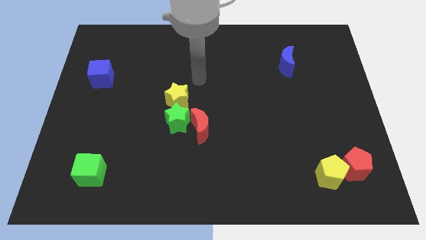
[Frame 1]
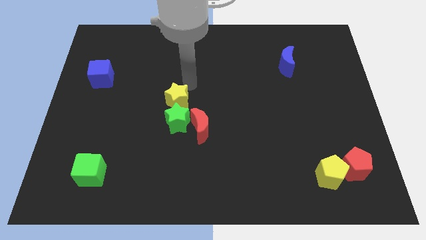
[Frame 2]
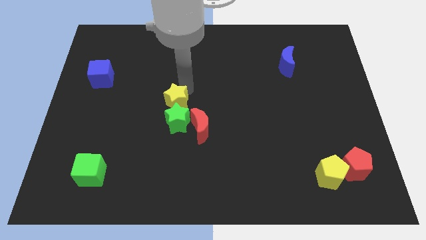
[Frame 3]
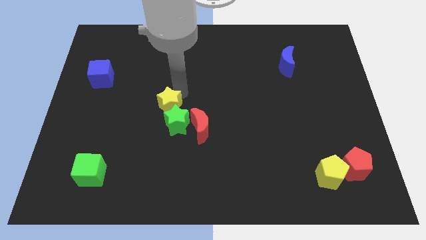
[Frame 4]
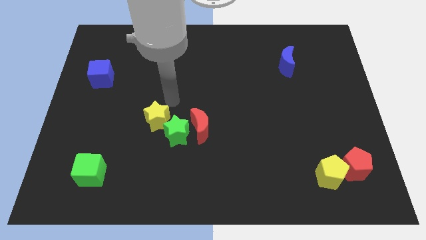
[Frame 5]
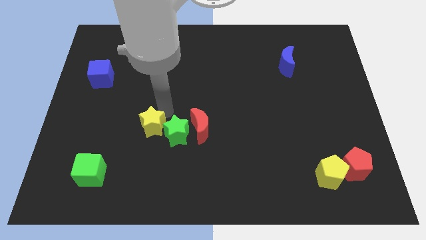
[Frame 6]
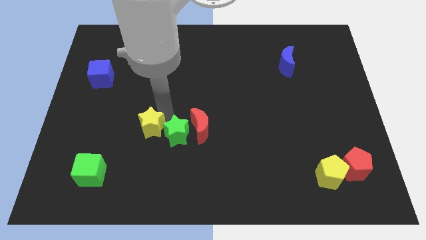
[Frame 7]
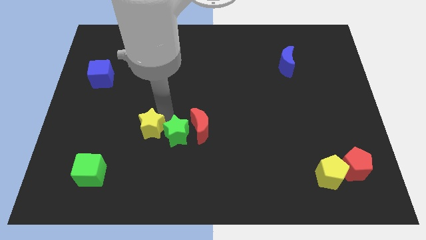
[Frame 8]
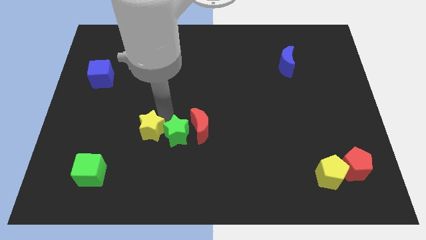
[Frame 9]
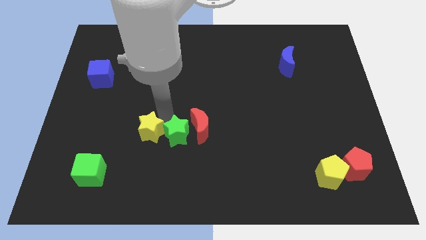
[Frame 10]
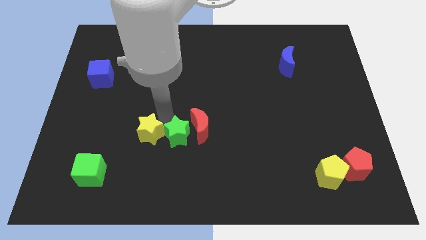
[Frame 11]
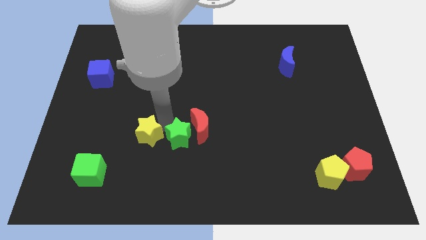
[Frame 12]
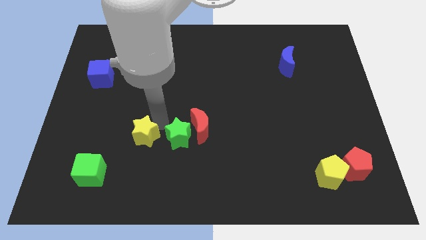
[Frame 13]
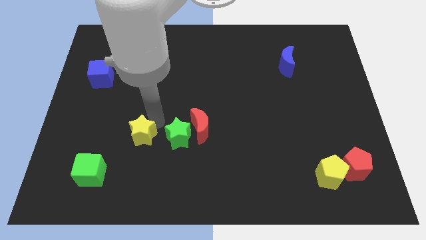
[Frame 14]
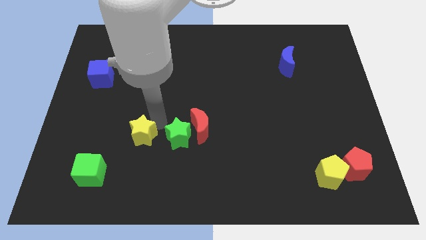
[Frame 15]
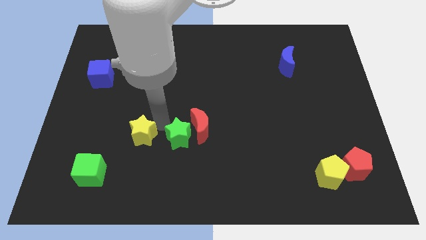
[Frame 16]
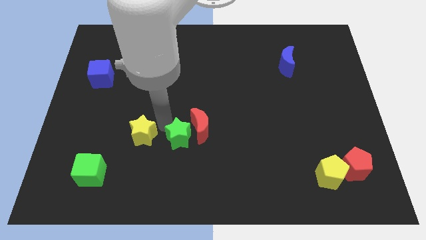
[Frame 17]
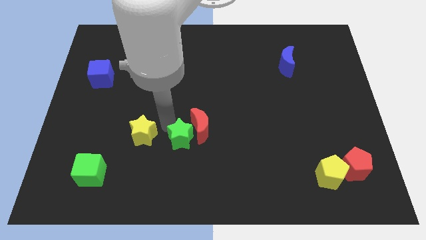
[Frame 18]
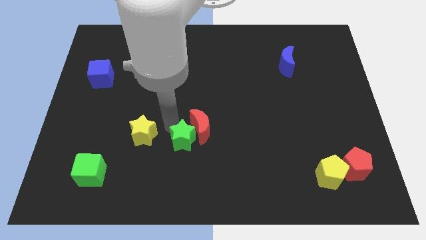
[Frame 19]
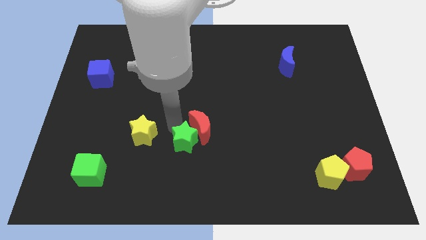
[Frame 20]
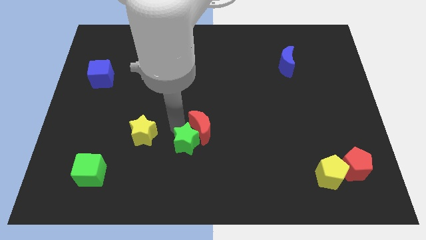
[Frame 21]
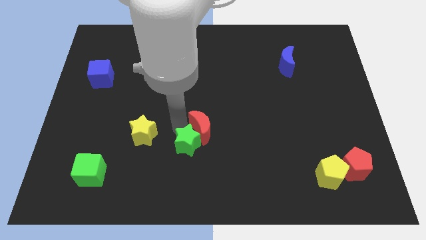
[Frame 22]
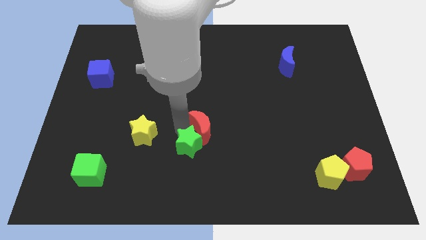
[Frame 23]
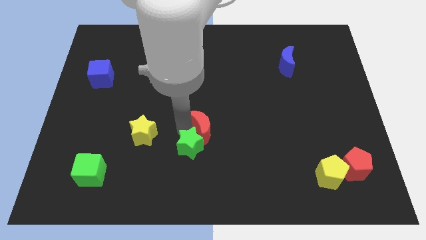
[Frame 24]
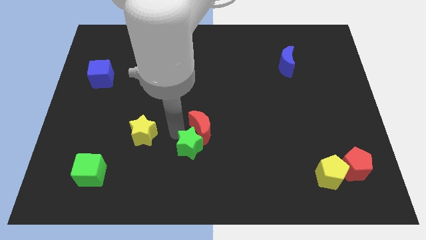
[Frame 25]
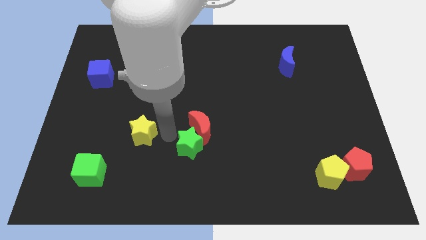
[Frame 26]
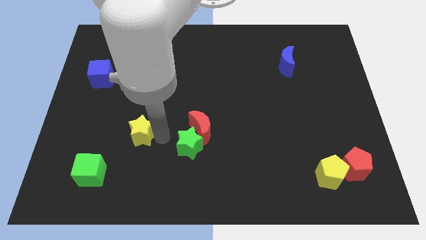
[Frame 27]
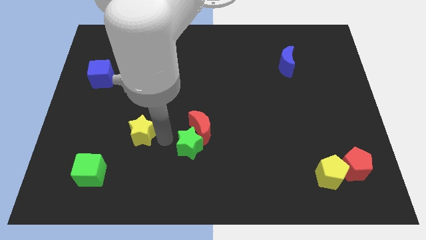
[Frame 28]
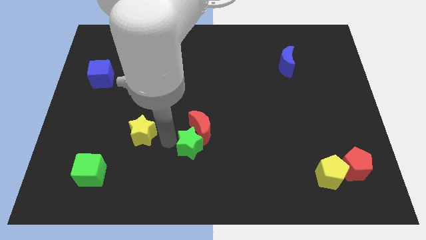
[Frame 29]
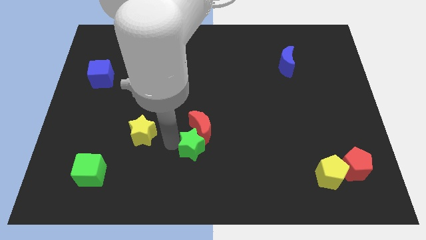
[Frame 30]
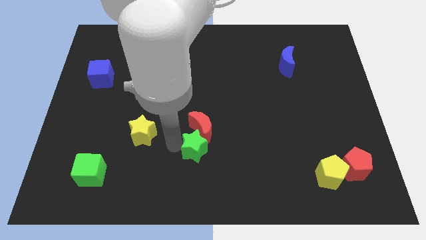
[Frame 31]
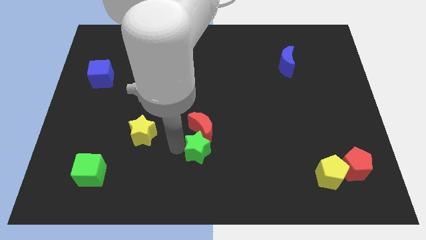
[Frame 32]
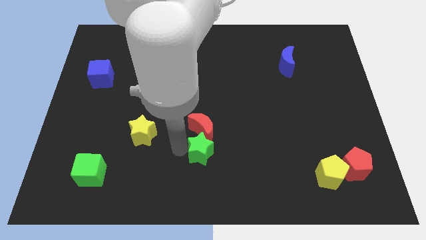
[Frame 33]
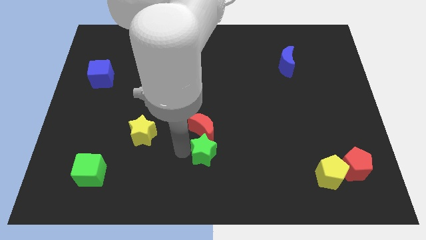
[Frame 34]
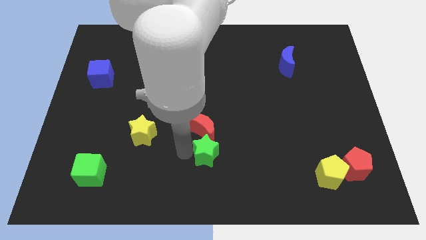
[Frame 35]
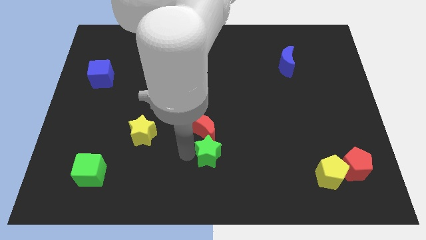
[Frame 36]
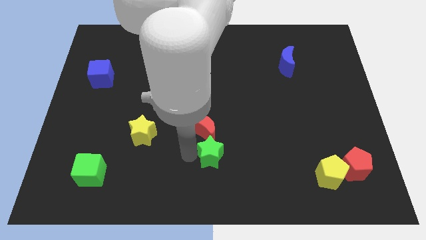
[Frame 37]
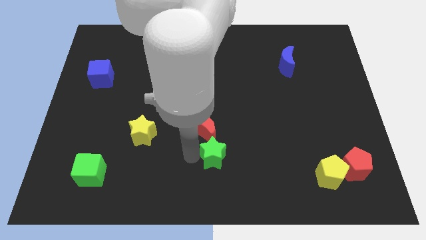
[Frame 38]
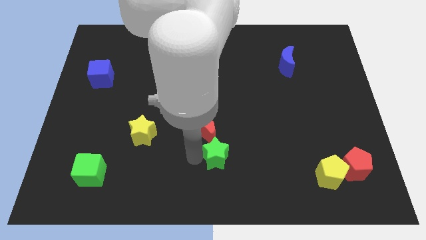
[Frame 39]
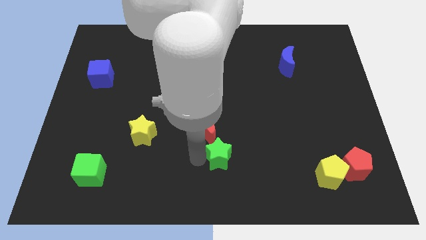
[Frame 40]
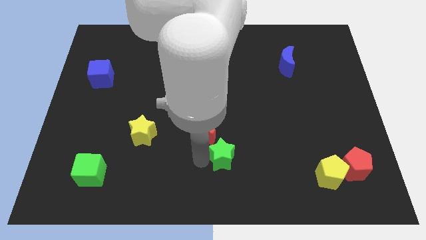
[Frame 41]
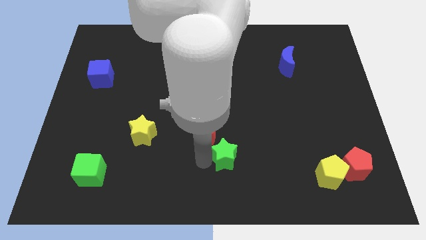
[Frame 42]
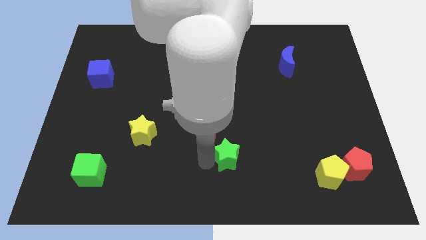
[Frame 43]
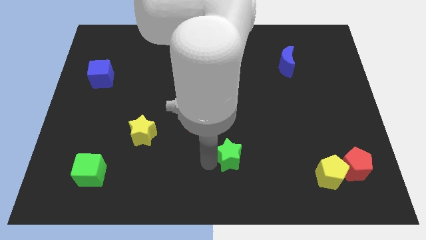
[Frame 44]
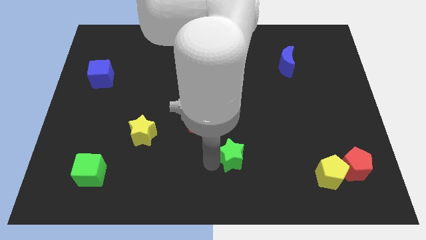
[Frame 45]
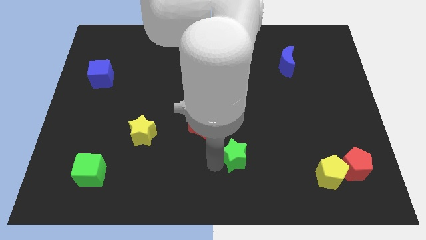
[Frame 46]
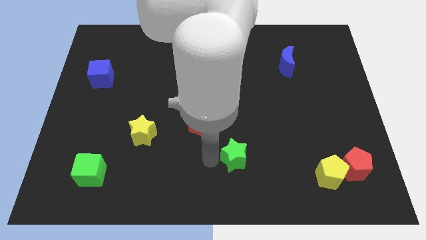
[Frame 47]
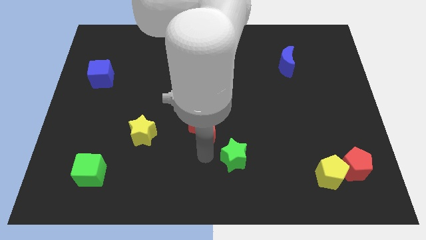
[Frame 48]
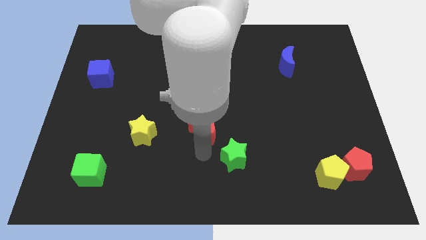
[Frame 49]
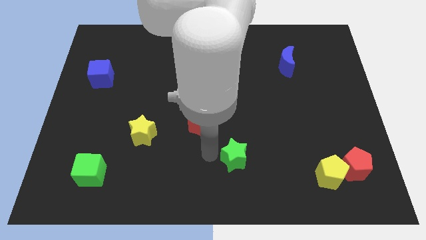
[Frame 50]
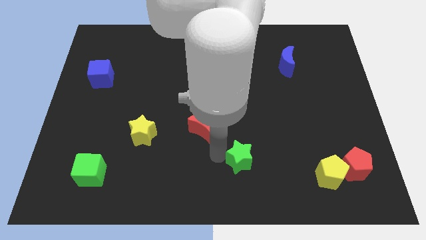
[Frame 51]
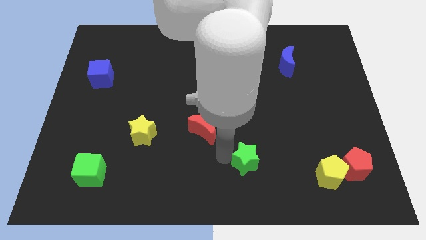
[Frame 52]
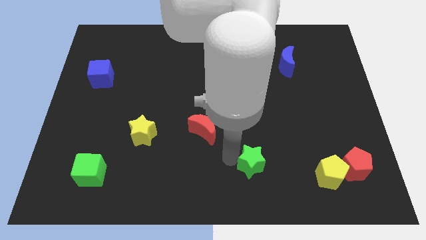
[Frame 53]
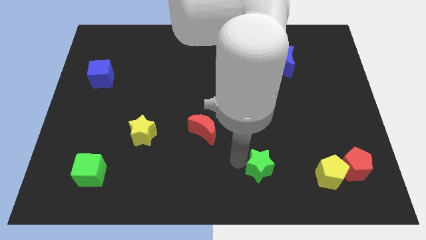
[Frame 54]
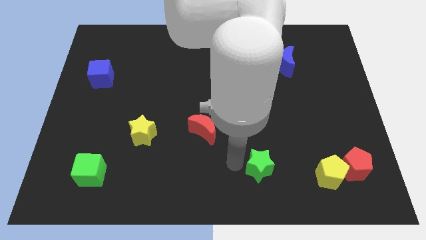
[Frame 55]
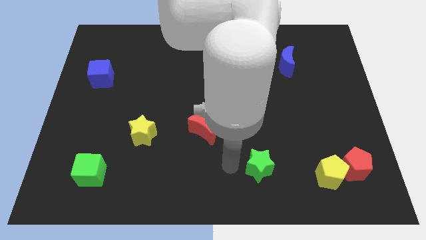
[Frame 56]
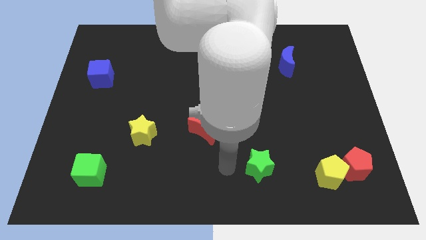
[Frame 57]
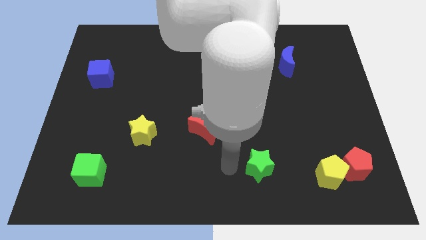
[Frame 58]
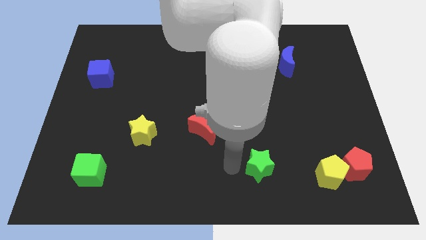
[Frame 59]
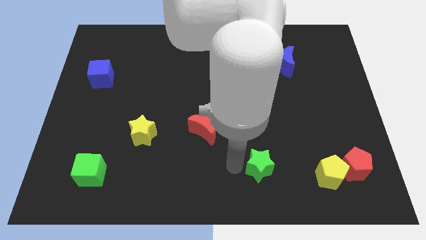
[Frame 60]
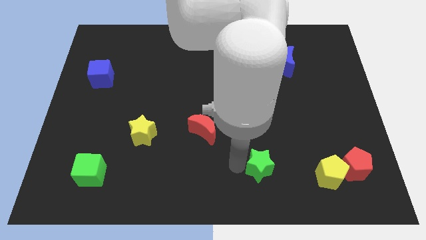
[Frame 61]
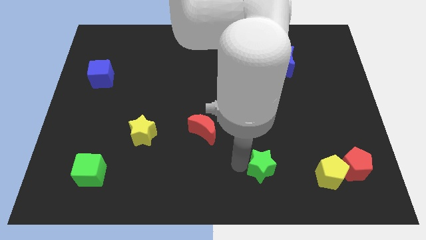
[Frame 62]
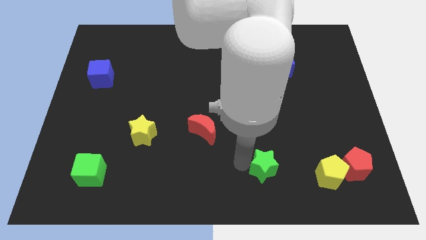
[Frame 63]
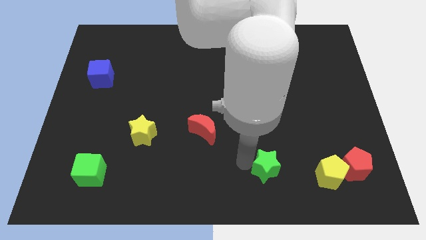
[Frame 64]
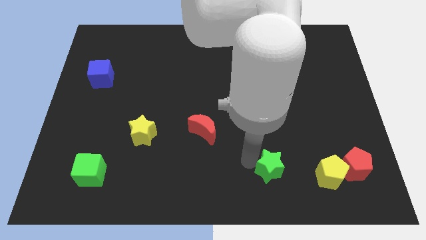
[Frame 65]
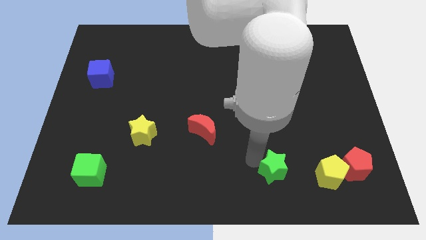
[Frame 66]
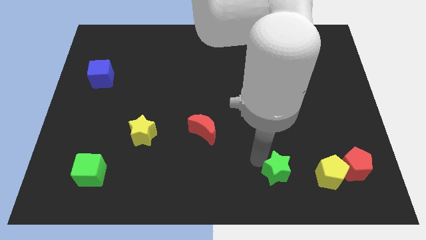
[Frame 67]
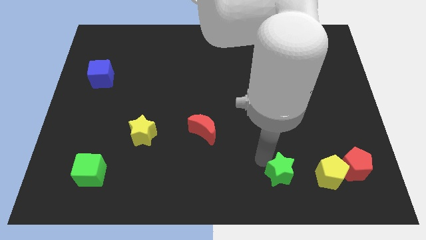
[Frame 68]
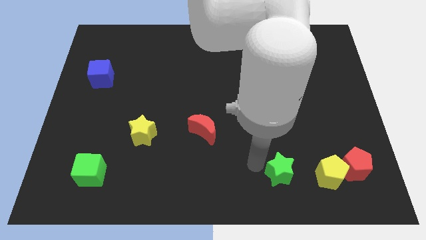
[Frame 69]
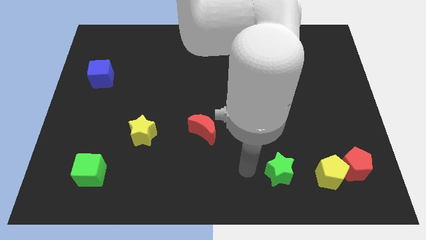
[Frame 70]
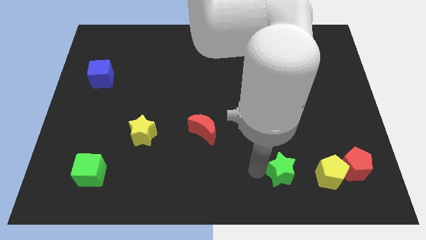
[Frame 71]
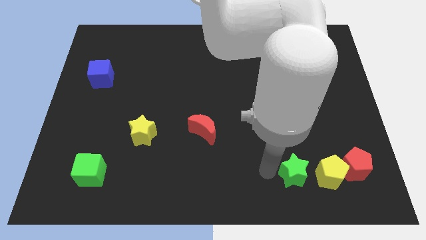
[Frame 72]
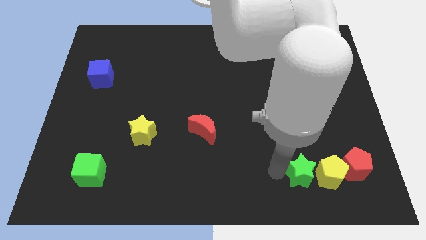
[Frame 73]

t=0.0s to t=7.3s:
put the green star towards the yellow pentagon

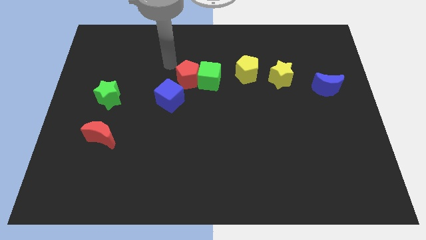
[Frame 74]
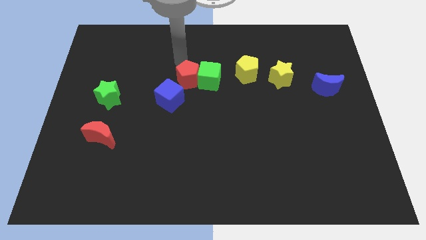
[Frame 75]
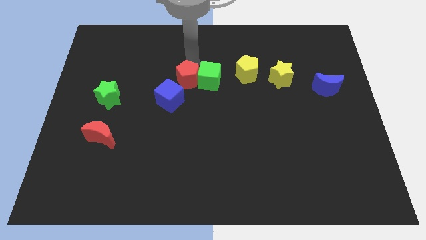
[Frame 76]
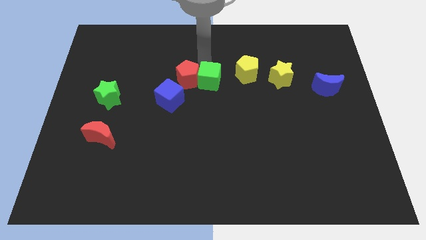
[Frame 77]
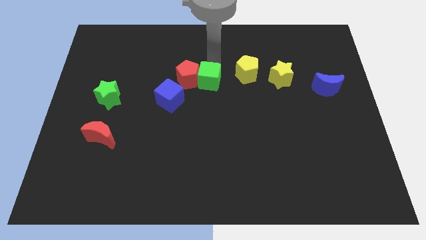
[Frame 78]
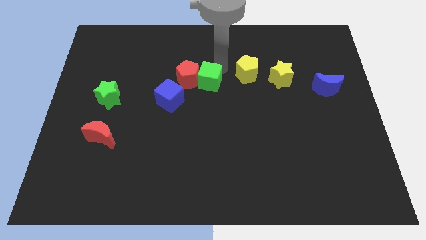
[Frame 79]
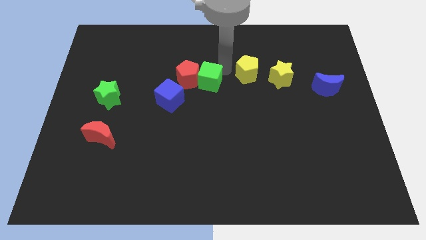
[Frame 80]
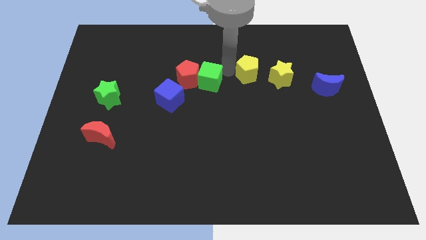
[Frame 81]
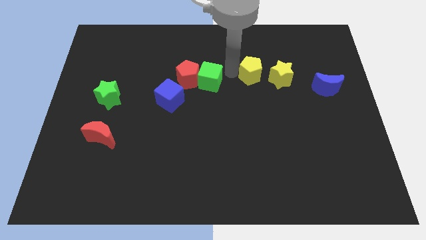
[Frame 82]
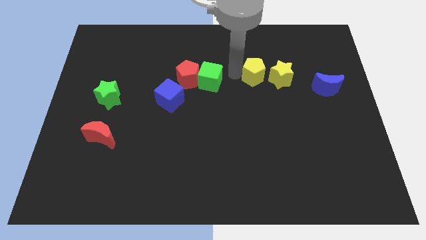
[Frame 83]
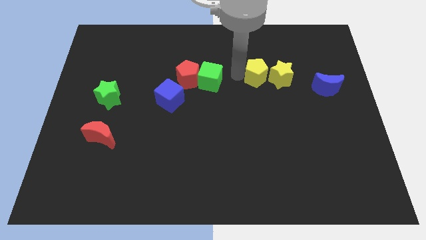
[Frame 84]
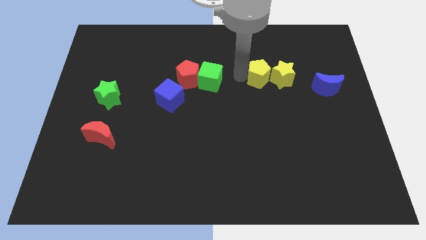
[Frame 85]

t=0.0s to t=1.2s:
move the yellow pentagon to the yellow star
